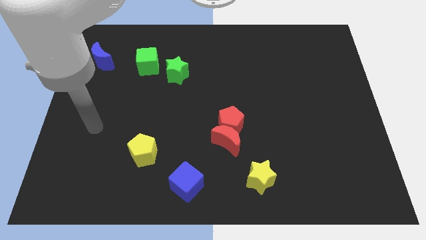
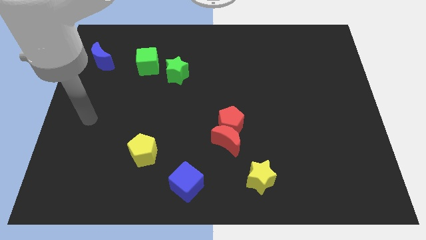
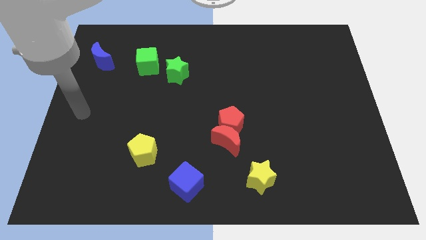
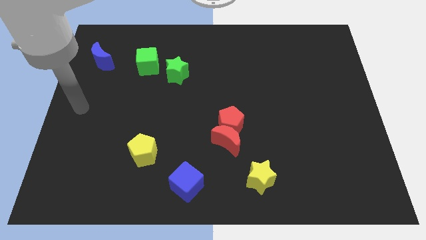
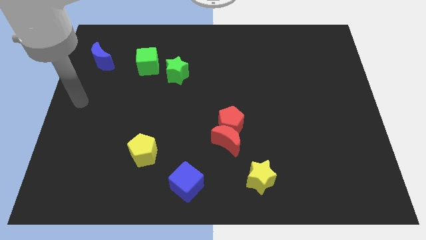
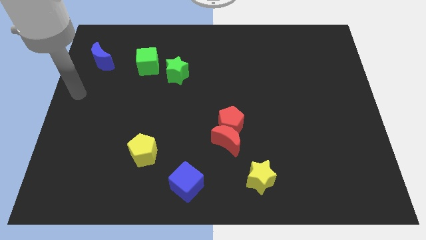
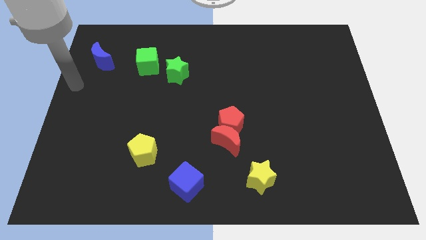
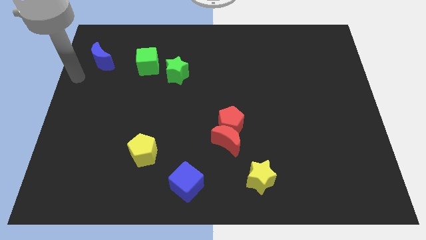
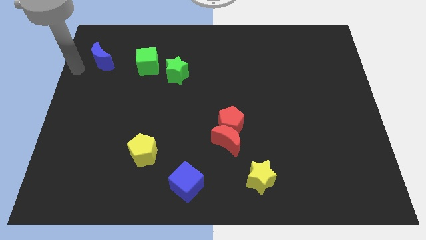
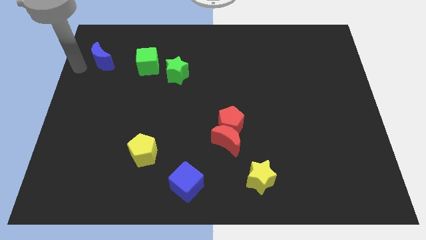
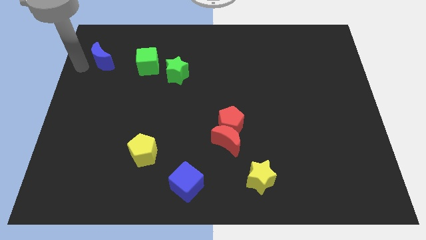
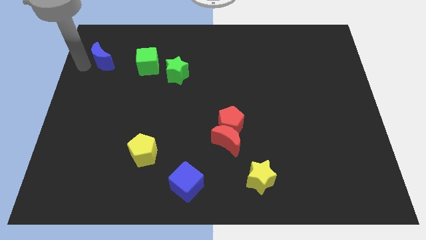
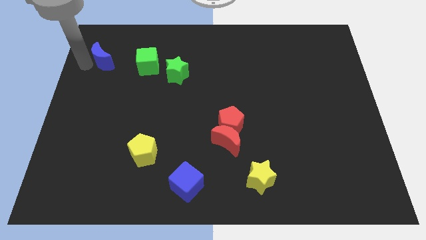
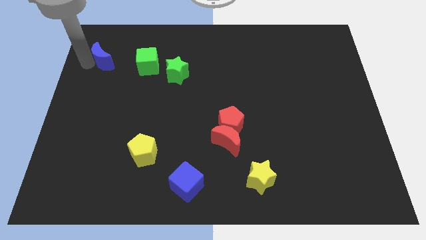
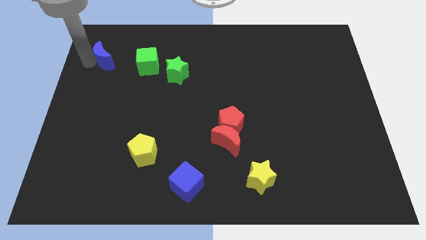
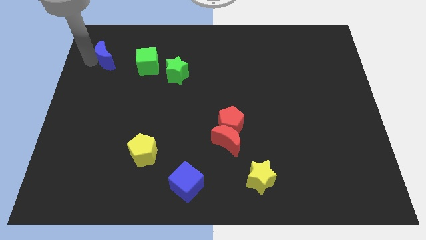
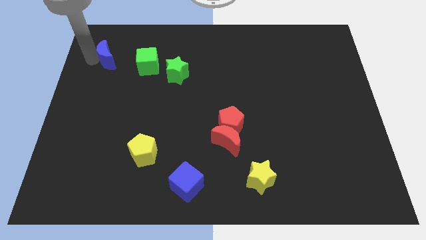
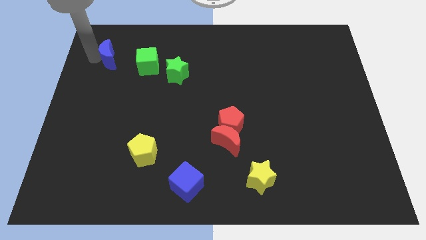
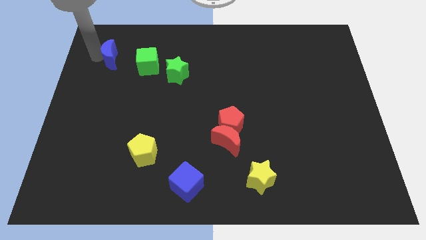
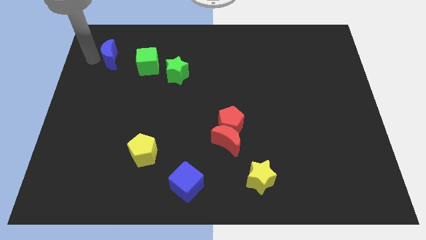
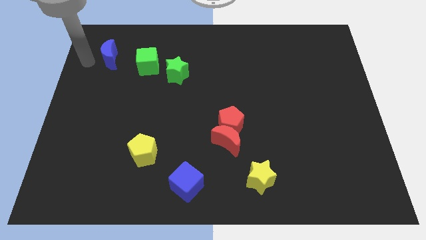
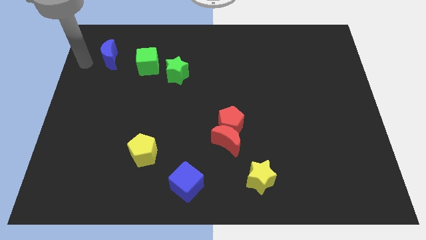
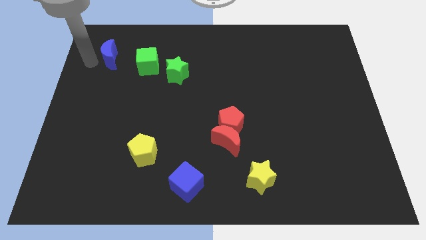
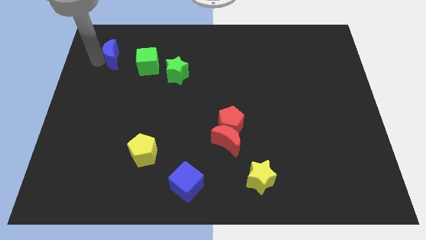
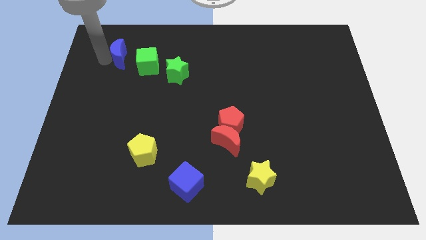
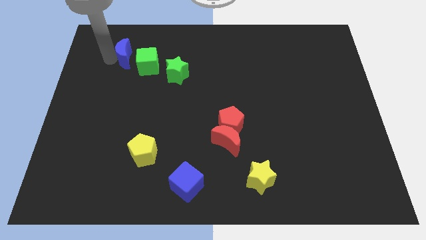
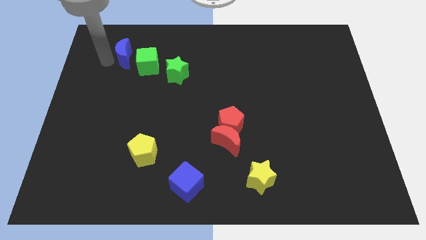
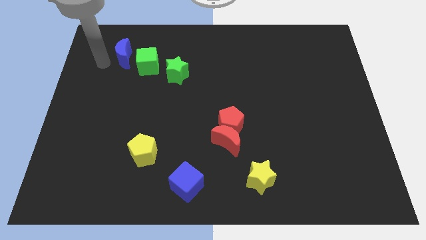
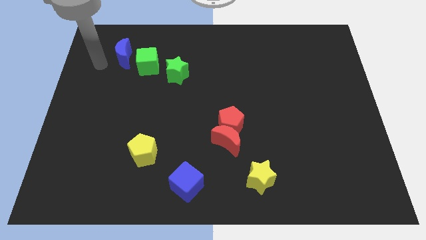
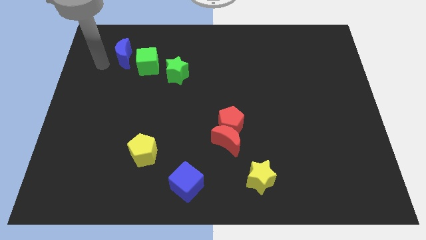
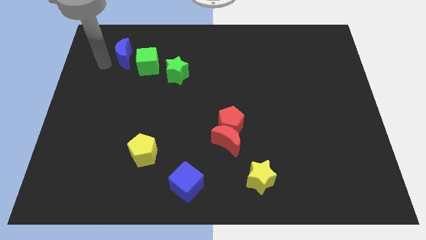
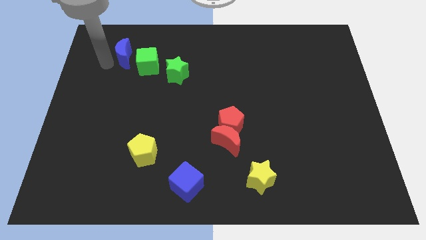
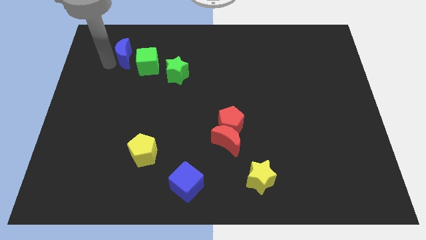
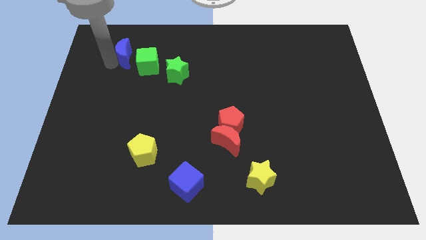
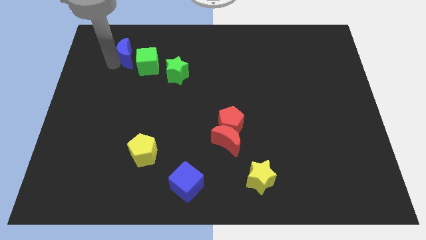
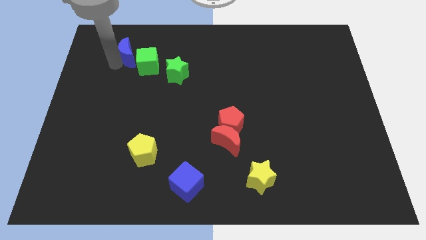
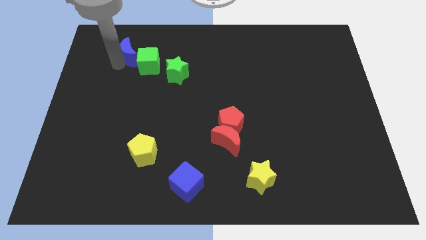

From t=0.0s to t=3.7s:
move the blue moon right slightly

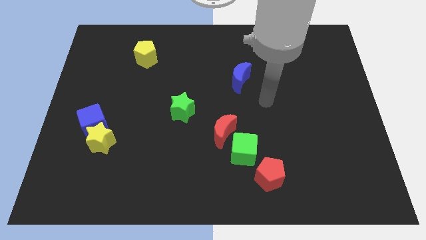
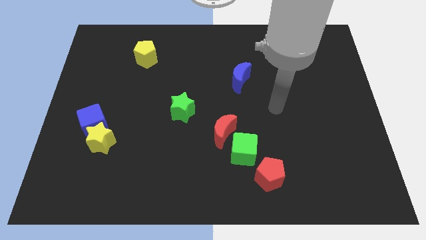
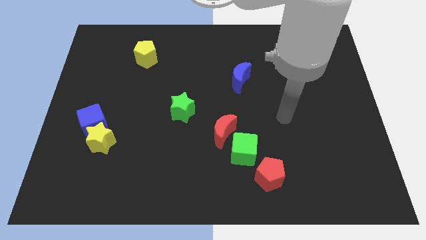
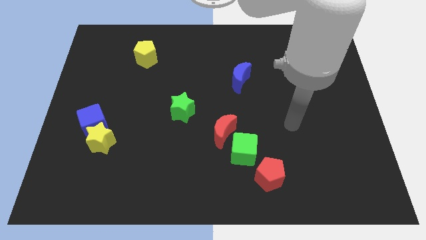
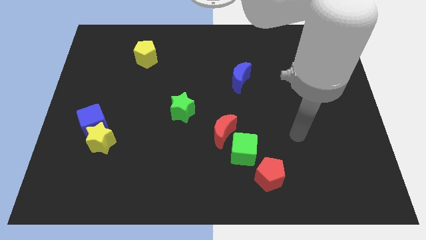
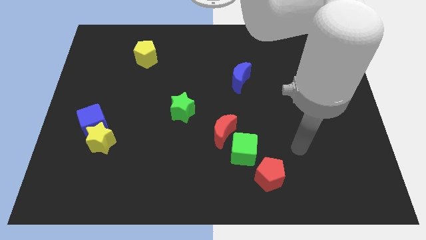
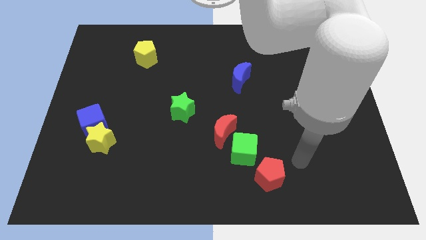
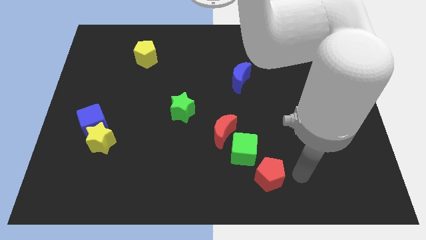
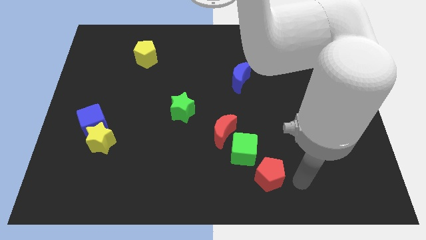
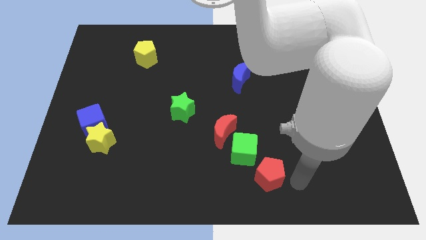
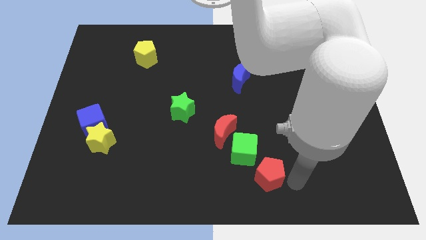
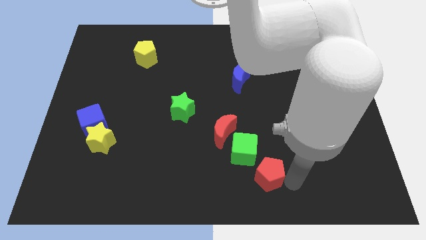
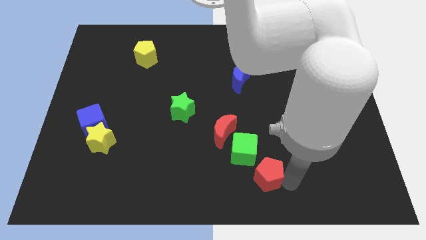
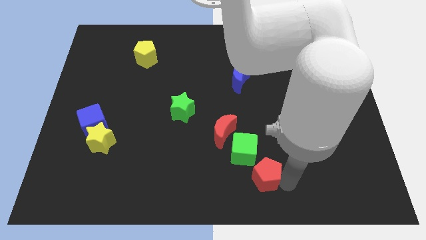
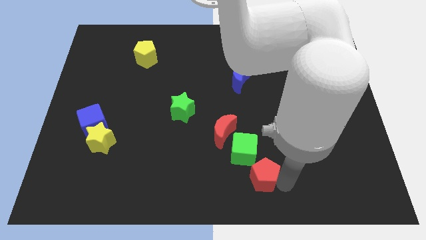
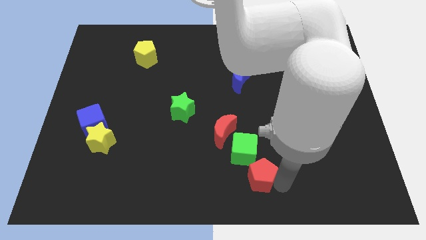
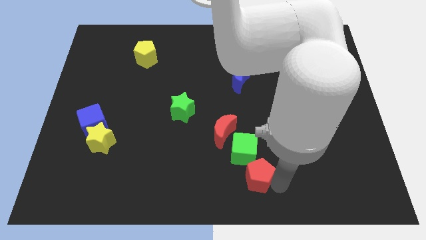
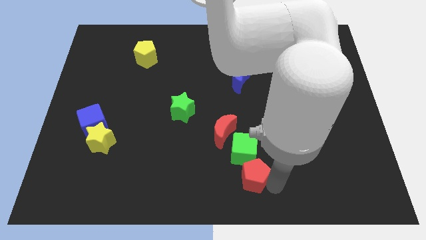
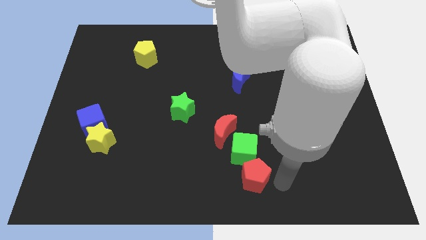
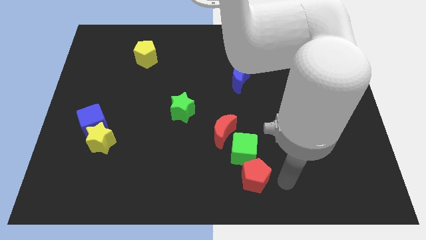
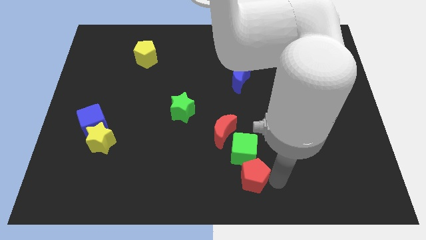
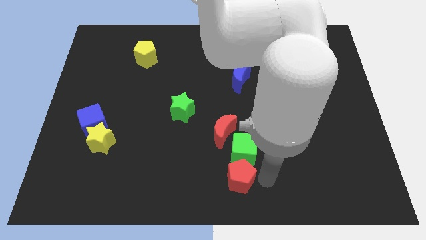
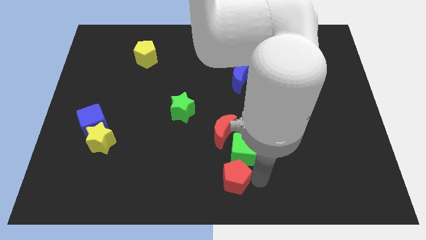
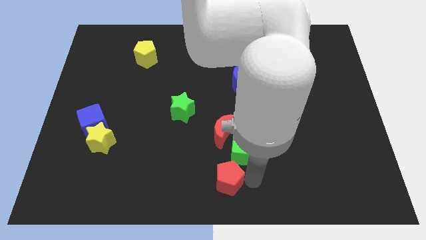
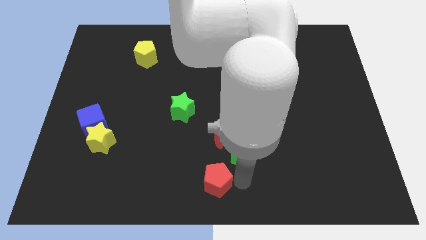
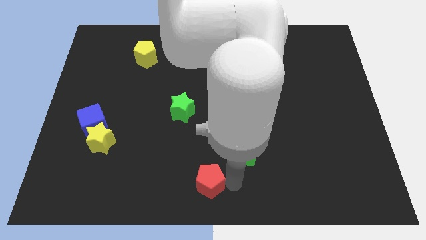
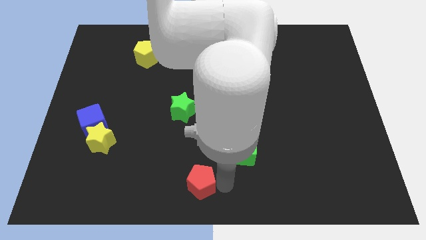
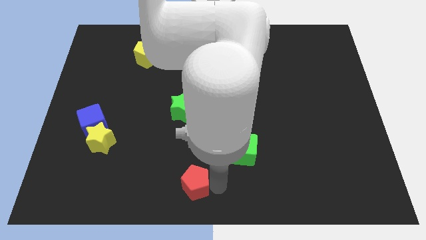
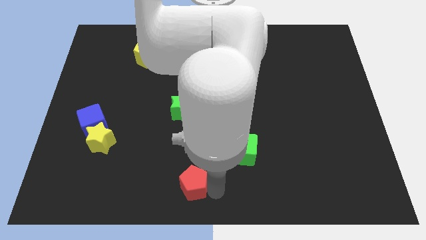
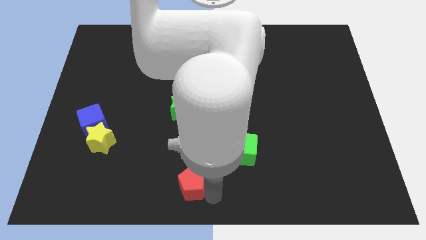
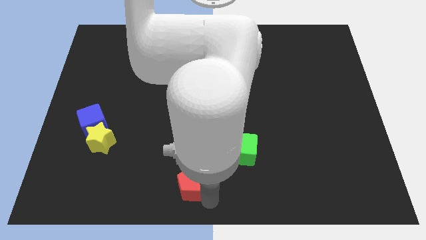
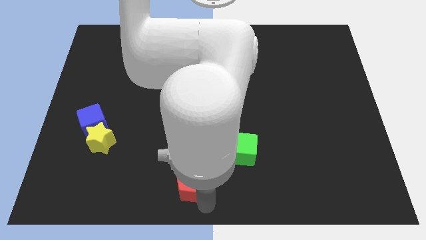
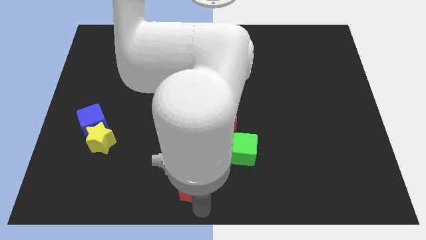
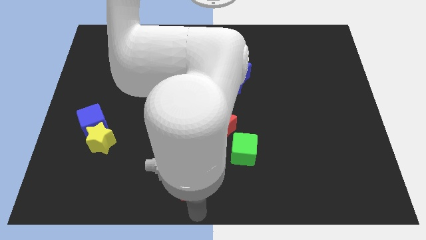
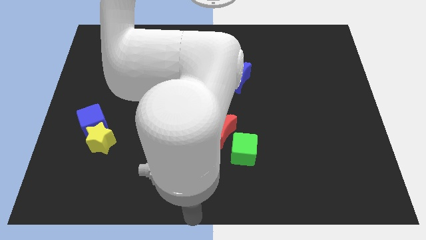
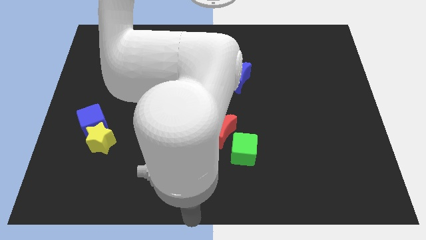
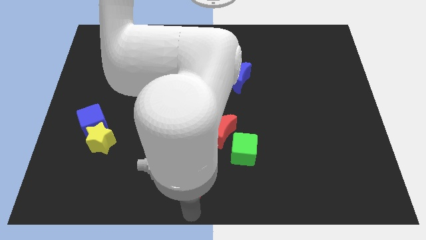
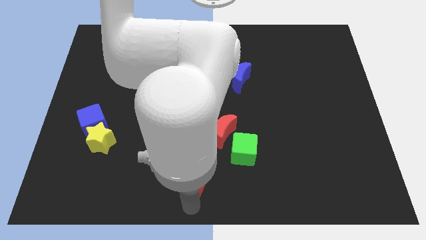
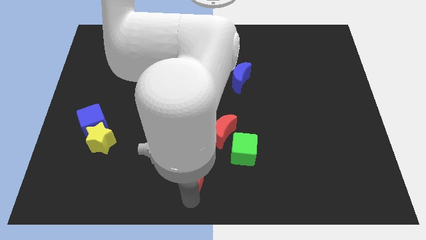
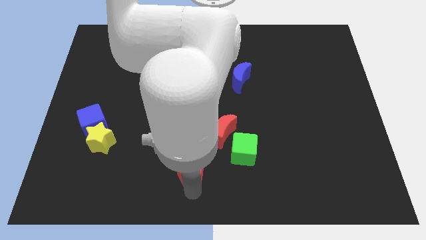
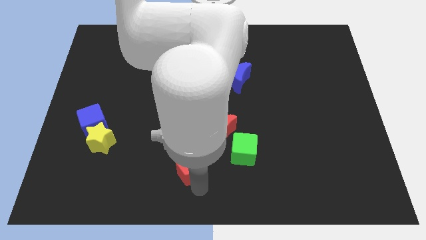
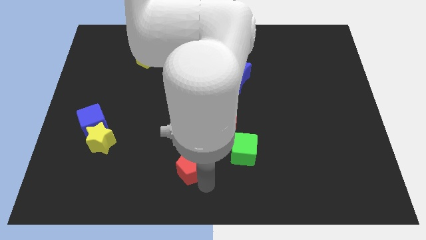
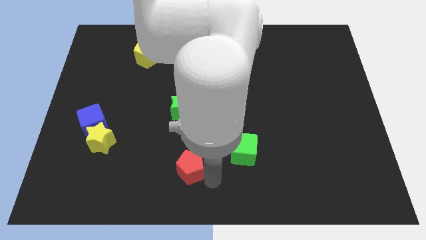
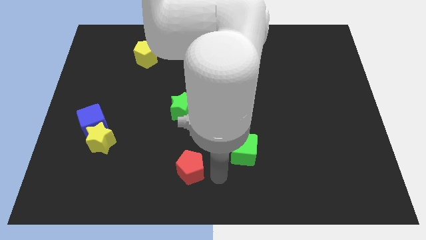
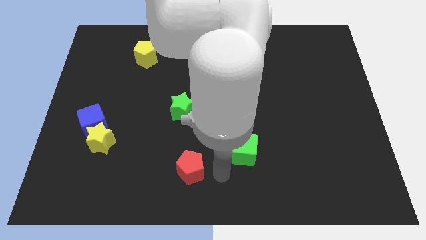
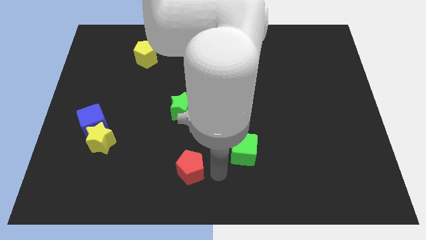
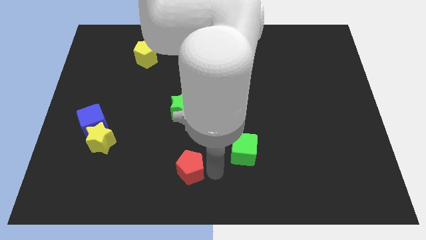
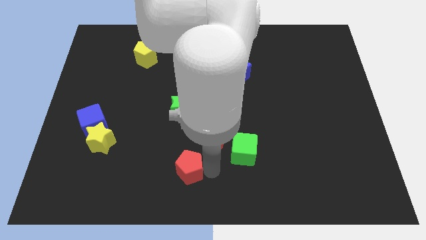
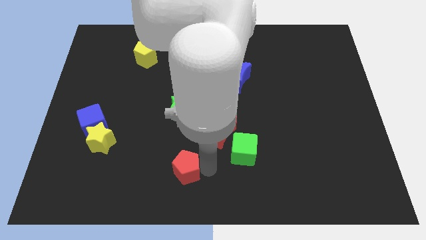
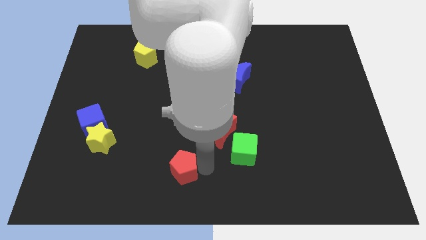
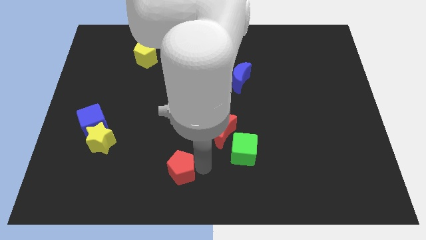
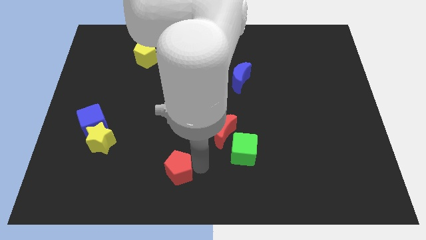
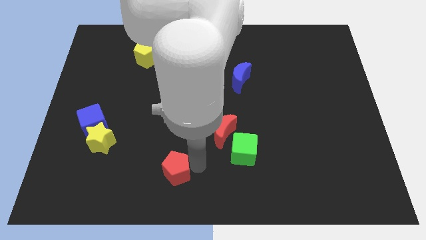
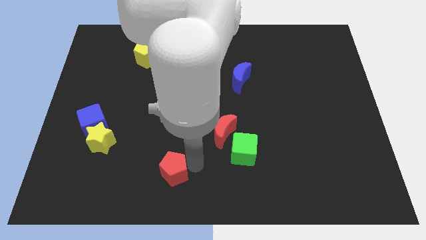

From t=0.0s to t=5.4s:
slide the red pentagon to the left
